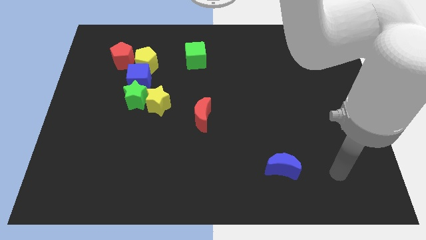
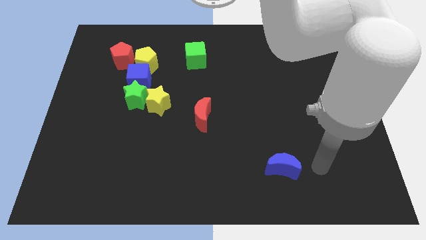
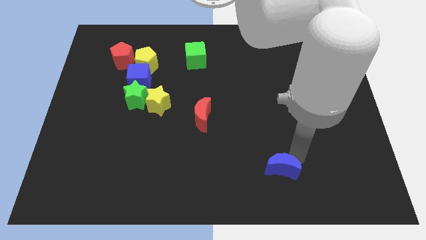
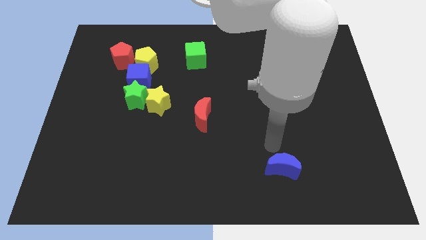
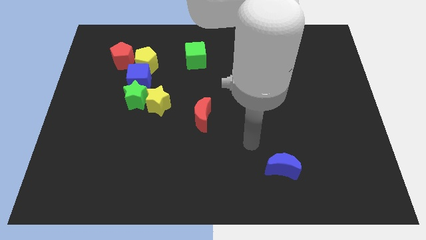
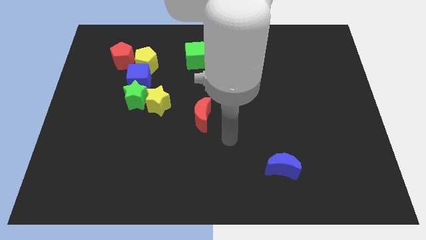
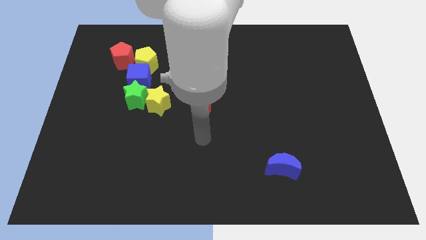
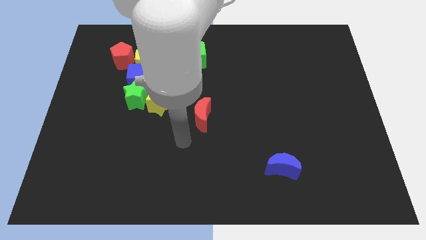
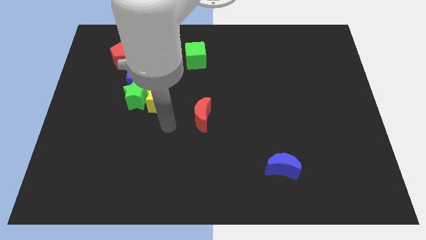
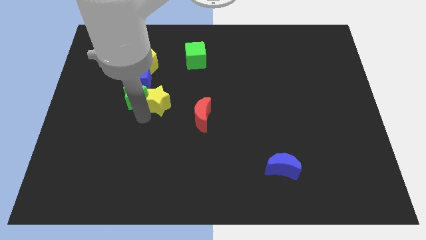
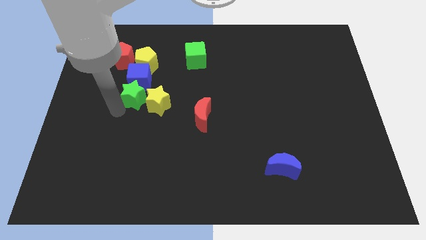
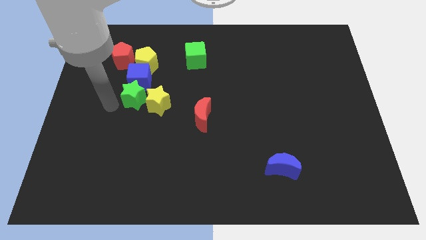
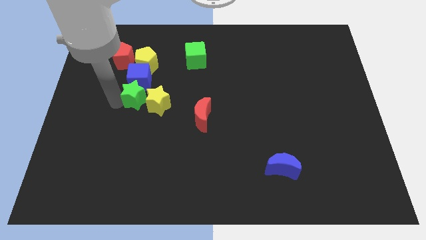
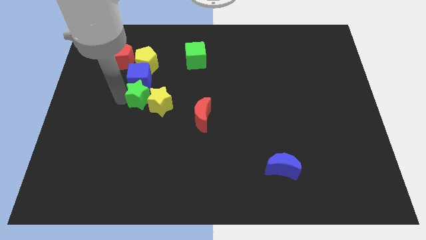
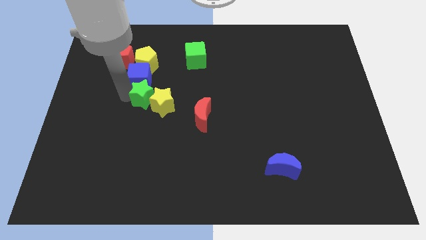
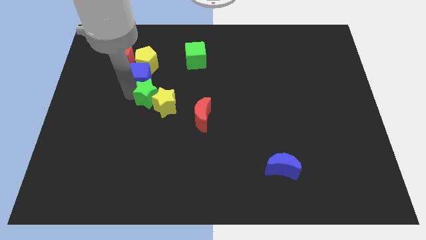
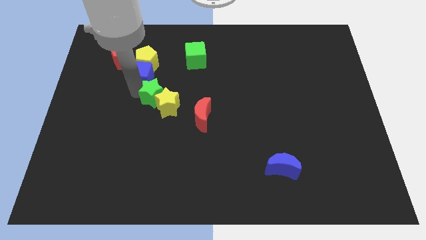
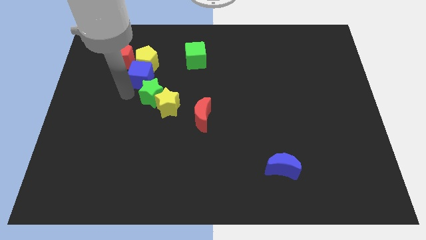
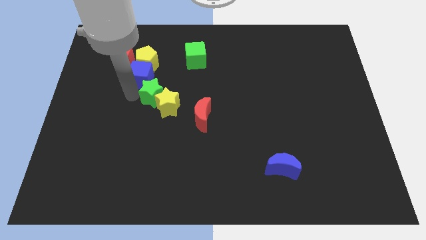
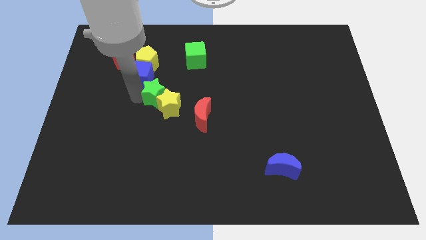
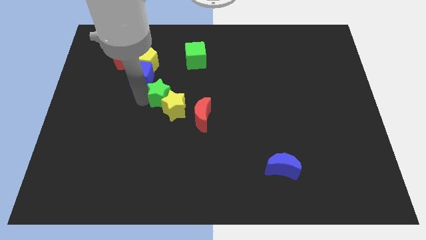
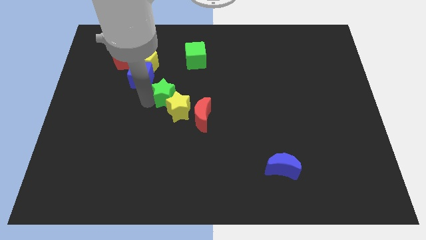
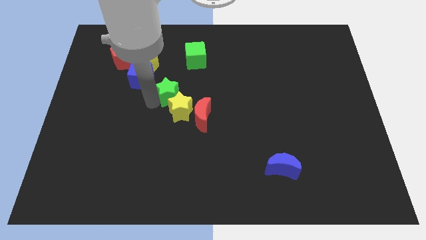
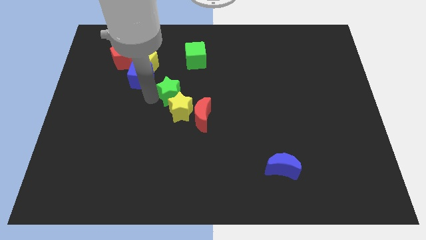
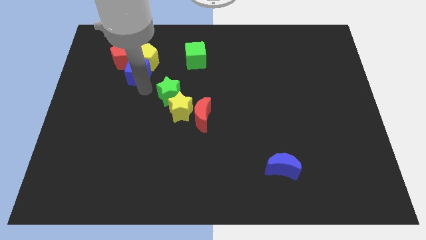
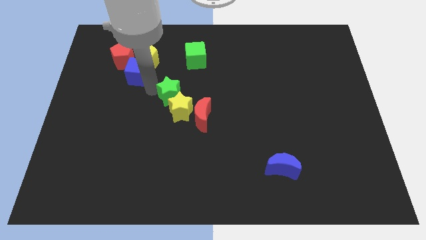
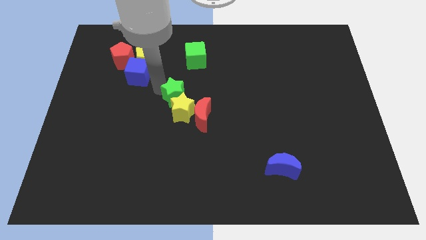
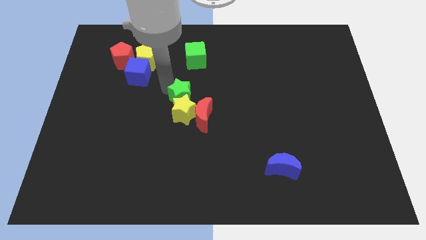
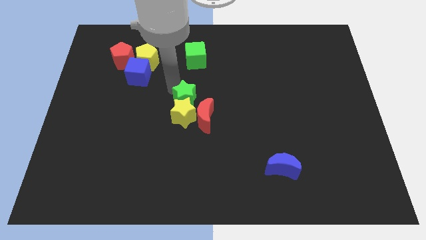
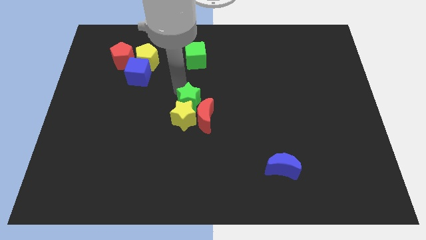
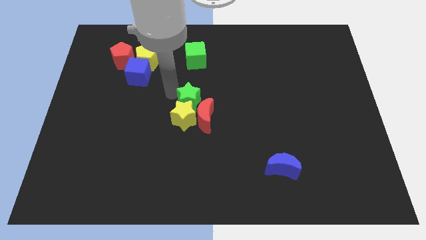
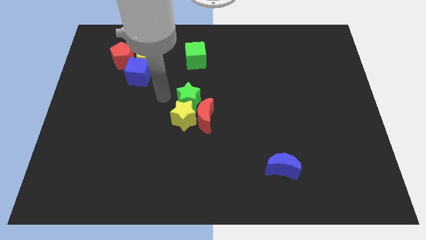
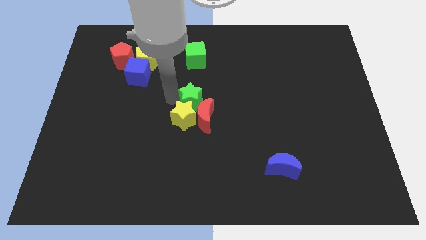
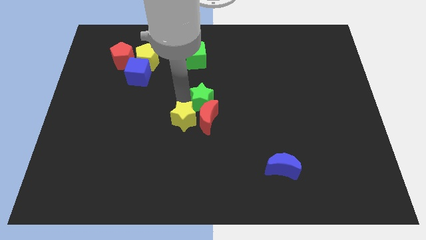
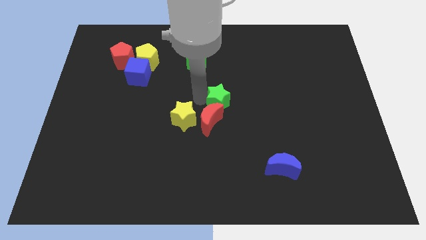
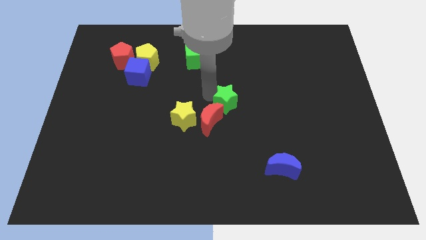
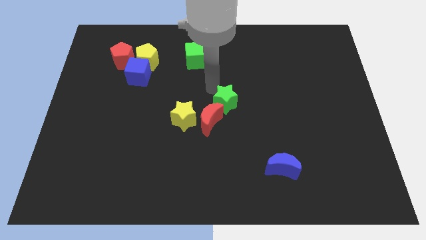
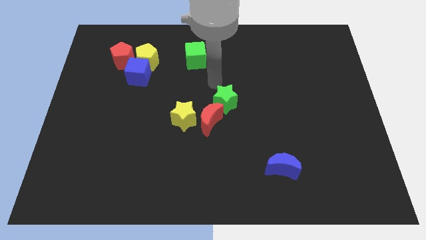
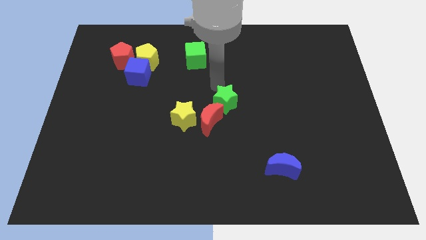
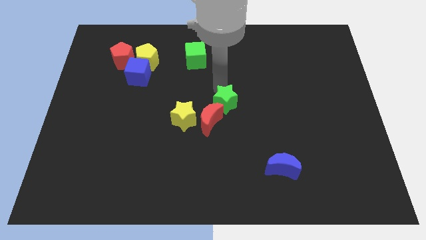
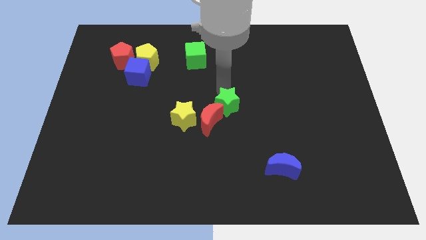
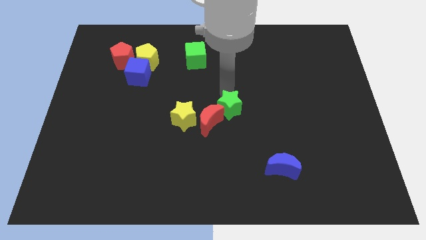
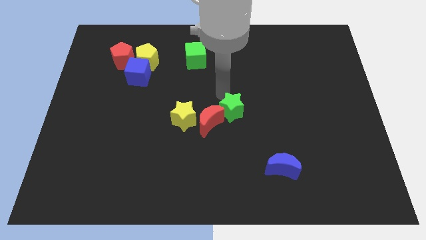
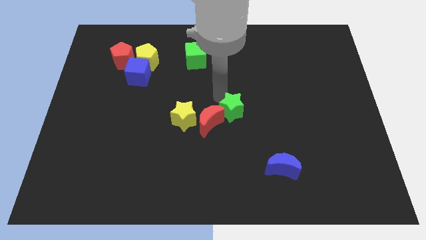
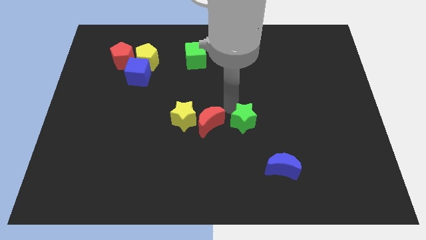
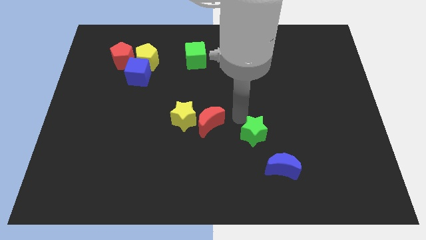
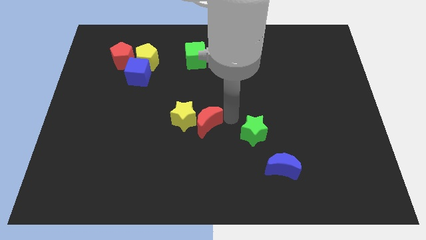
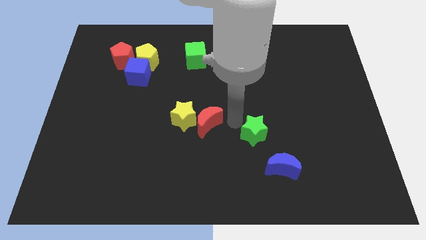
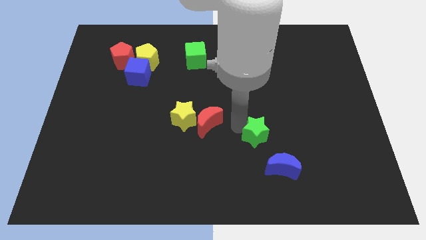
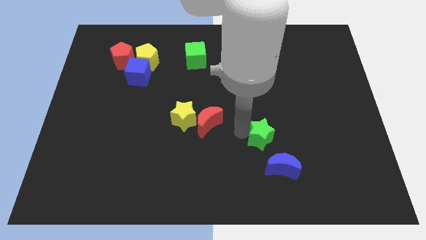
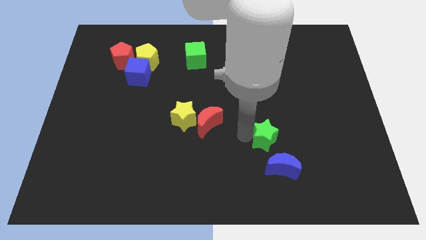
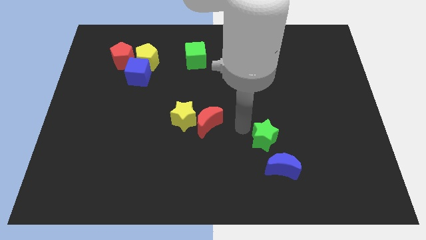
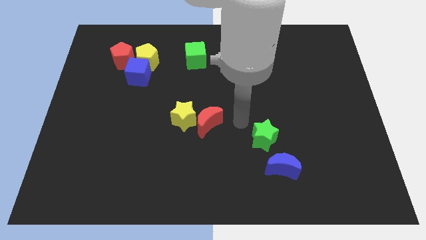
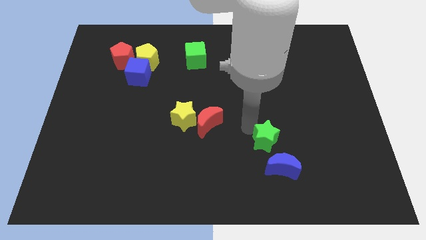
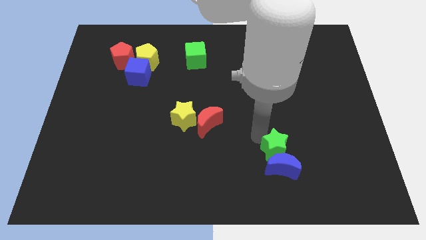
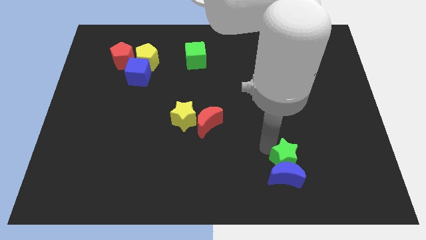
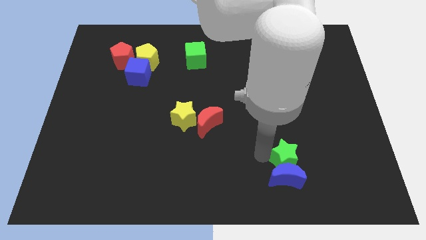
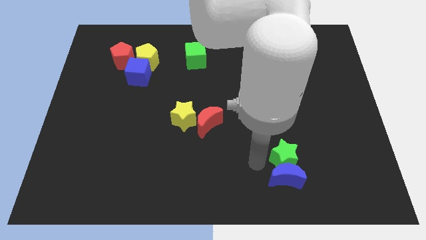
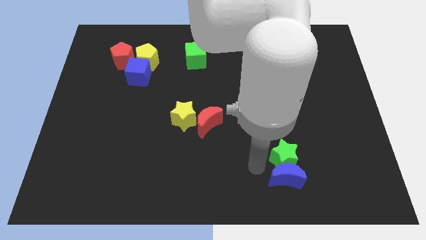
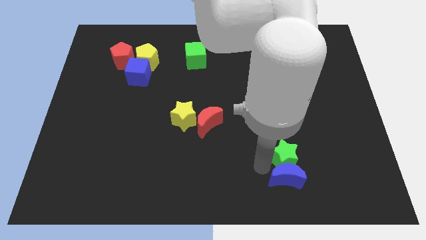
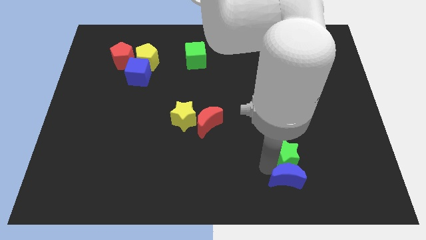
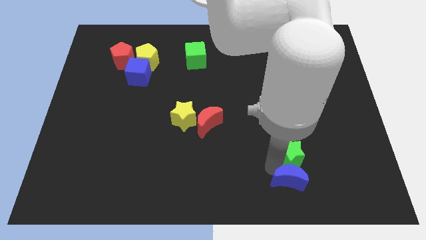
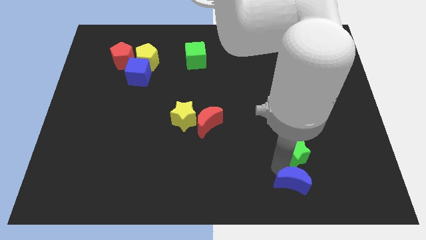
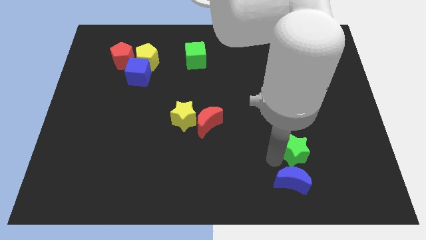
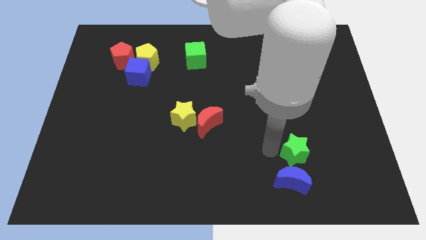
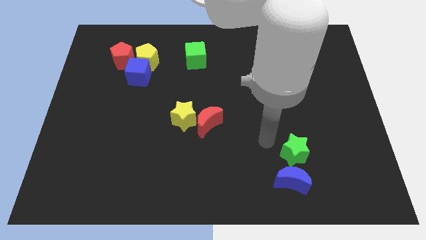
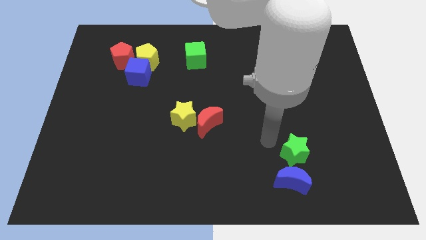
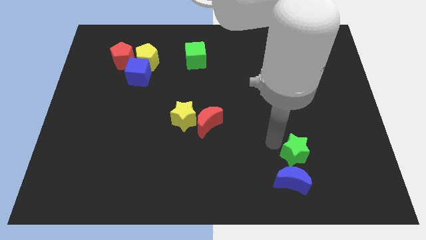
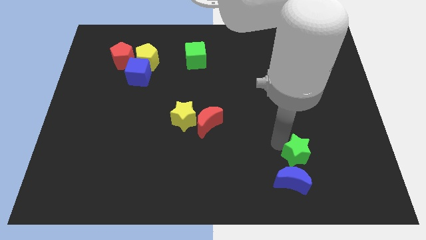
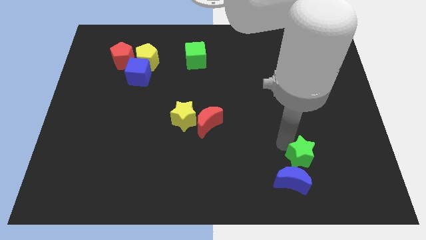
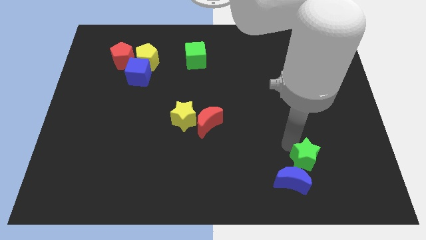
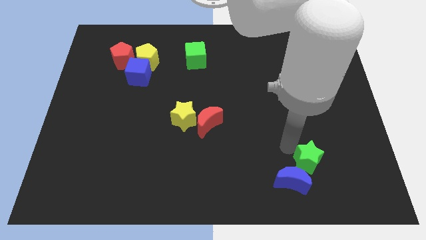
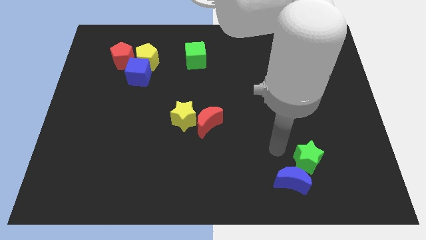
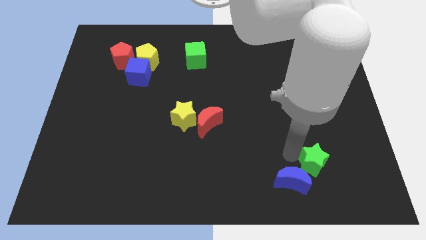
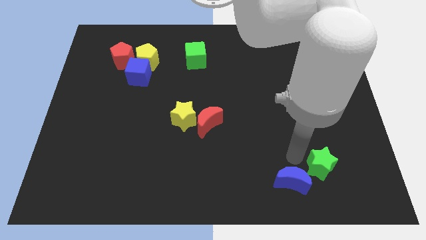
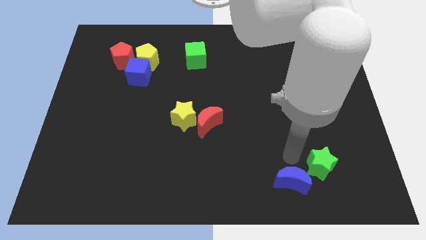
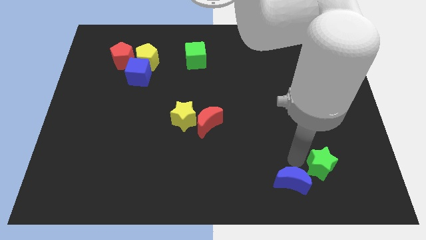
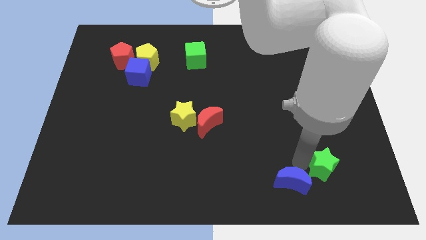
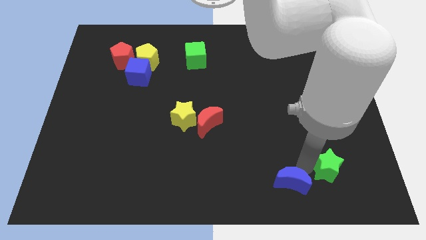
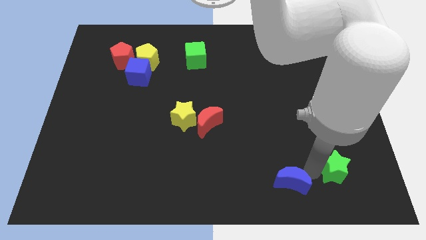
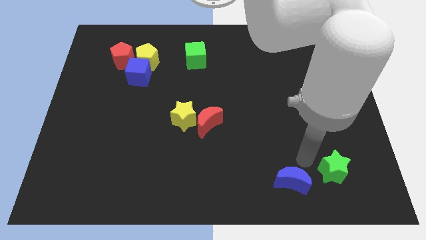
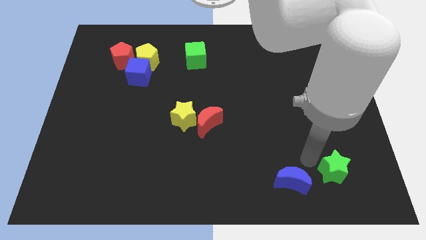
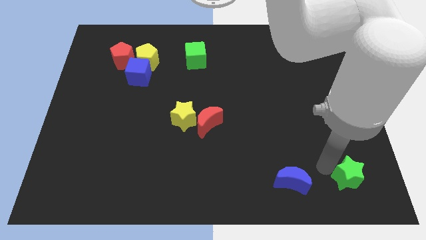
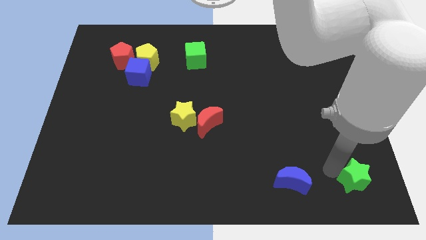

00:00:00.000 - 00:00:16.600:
slide the green star to the bottom right corner
